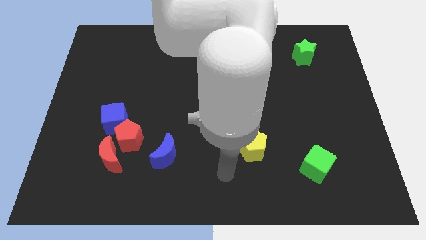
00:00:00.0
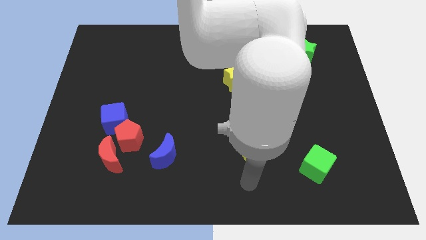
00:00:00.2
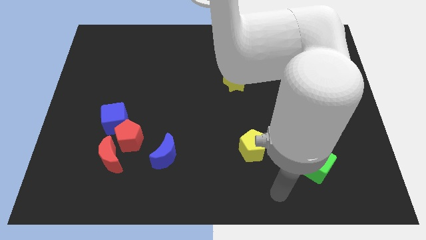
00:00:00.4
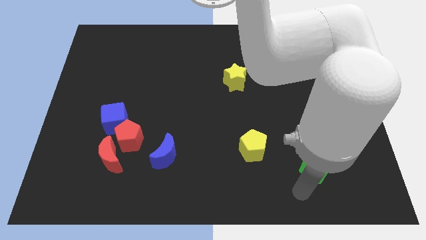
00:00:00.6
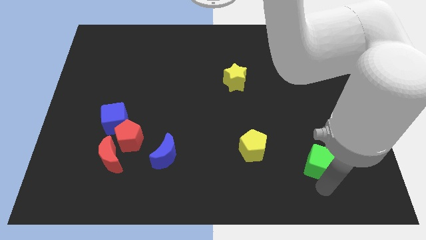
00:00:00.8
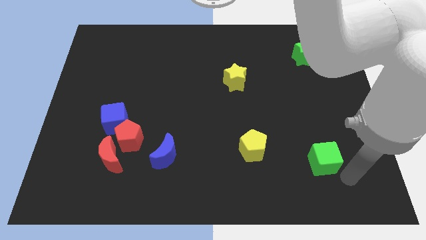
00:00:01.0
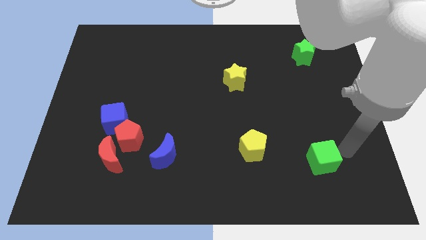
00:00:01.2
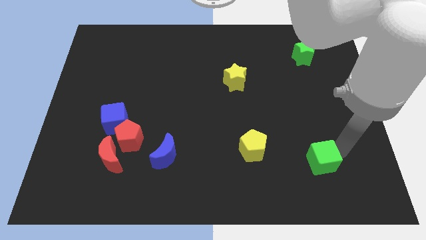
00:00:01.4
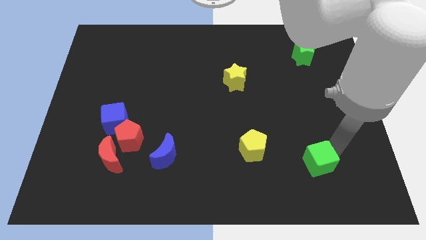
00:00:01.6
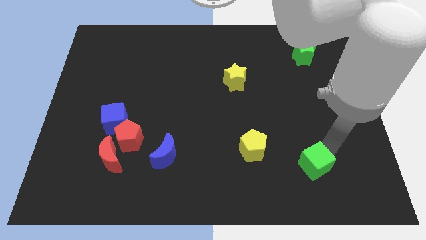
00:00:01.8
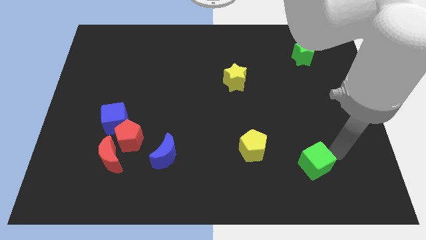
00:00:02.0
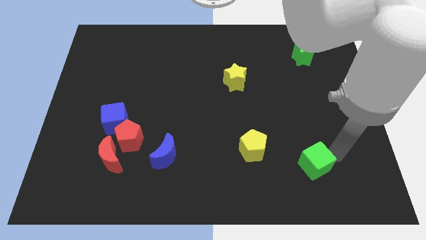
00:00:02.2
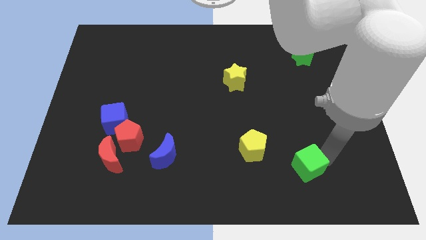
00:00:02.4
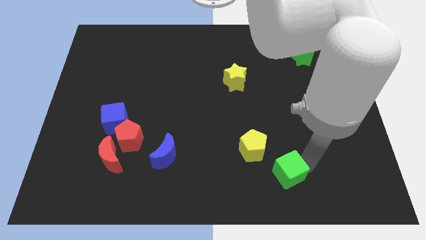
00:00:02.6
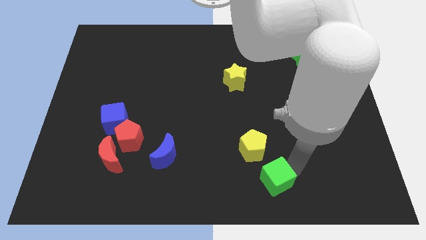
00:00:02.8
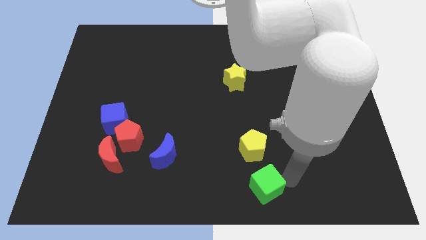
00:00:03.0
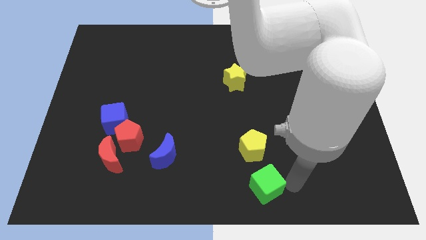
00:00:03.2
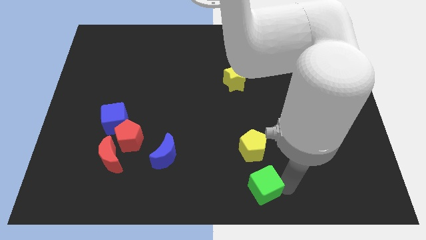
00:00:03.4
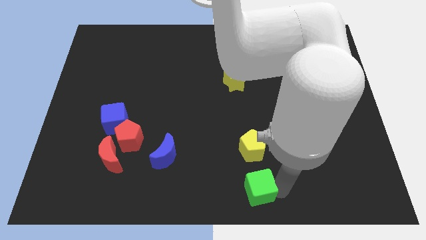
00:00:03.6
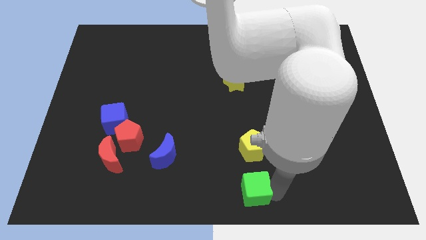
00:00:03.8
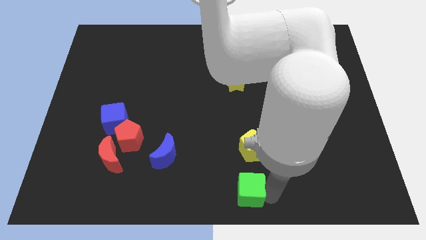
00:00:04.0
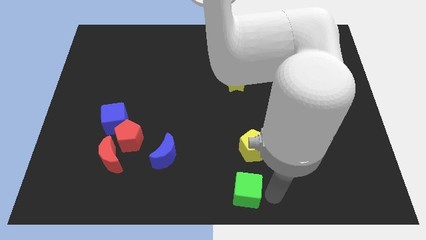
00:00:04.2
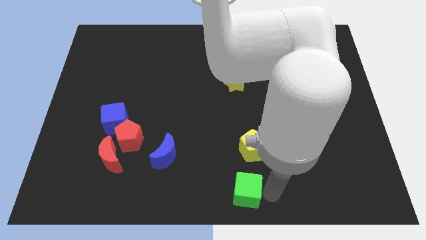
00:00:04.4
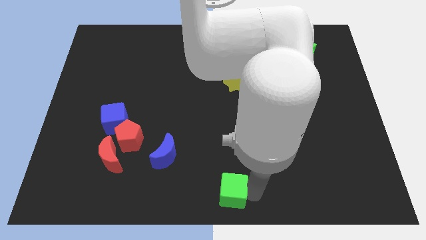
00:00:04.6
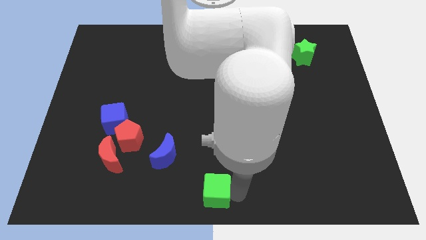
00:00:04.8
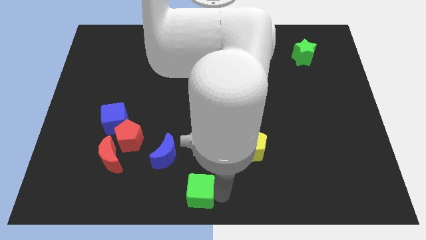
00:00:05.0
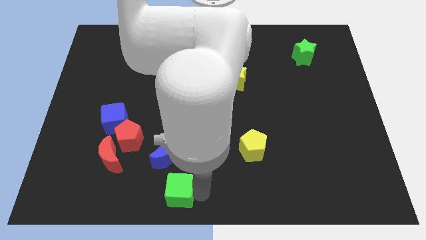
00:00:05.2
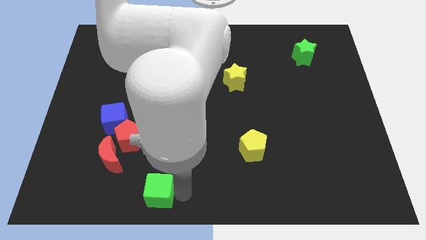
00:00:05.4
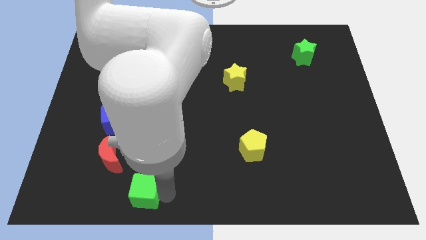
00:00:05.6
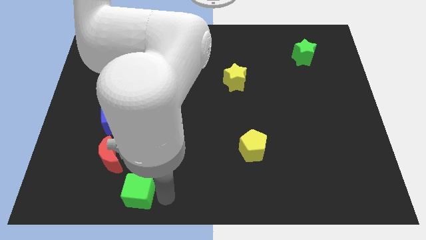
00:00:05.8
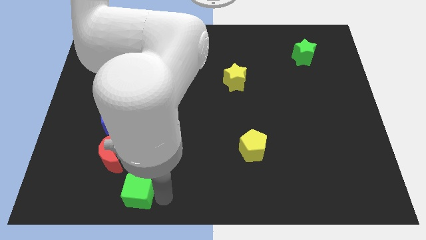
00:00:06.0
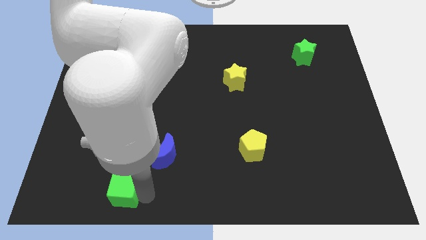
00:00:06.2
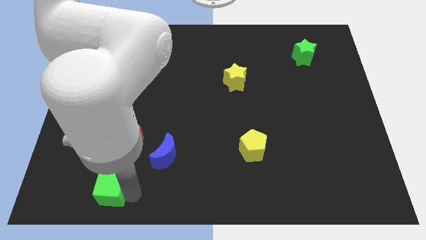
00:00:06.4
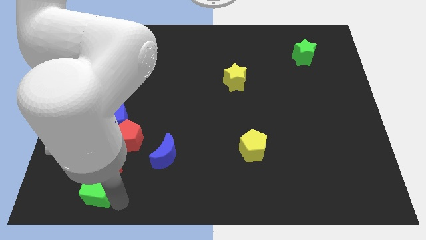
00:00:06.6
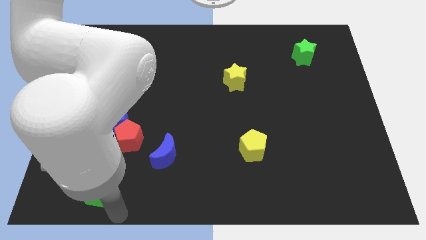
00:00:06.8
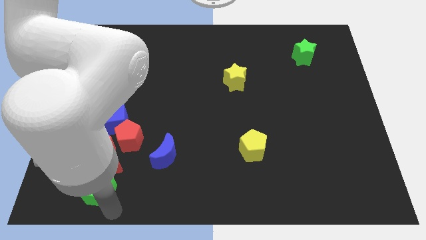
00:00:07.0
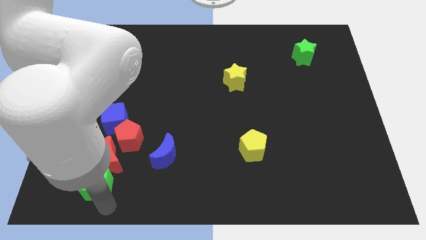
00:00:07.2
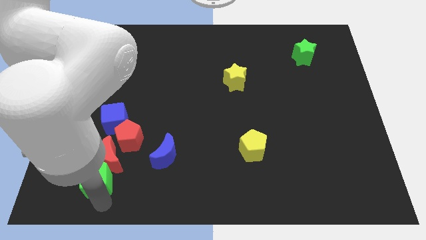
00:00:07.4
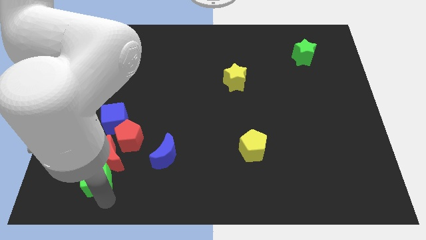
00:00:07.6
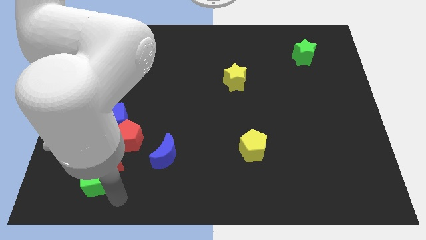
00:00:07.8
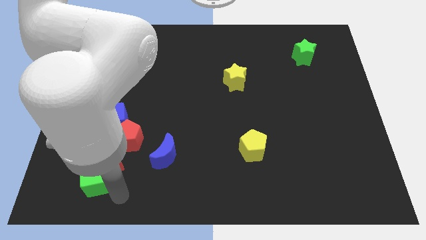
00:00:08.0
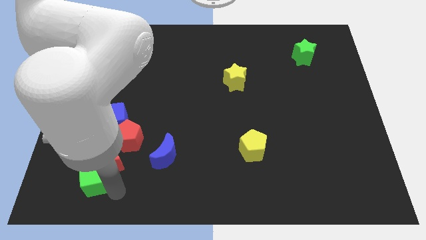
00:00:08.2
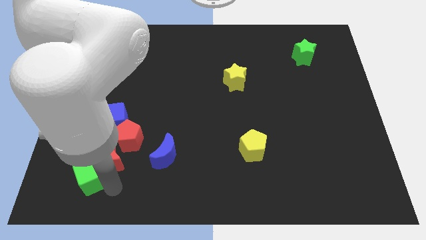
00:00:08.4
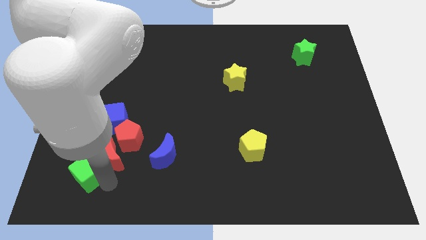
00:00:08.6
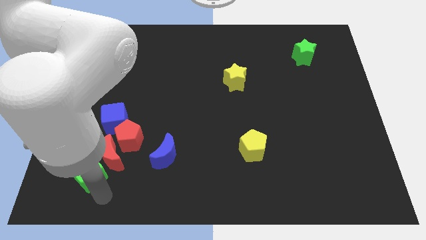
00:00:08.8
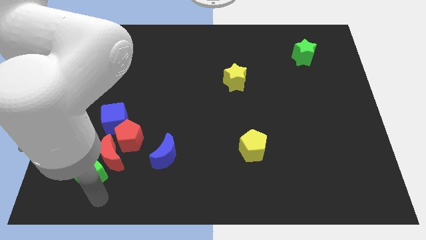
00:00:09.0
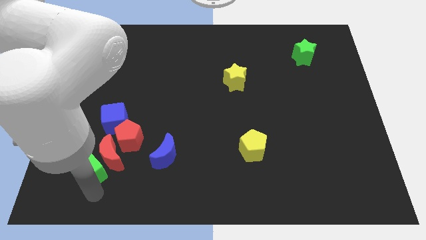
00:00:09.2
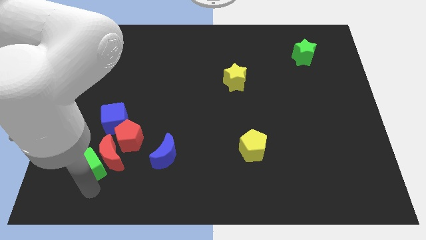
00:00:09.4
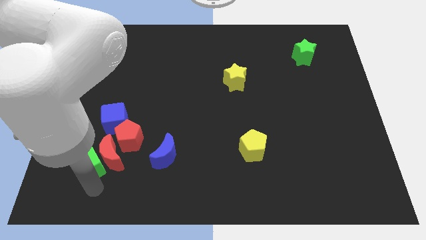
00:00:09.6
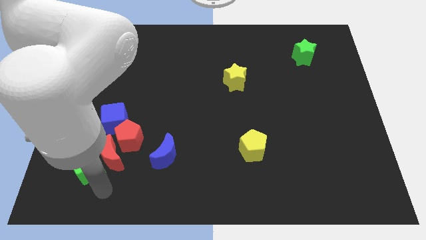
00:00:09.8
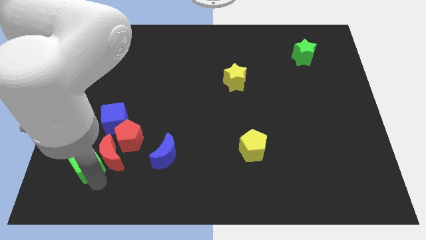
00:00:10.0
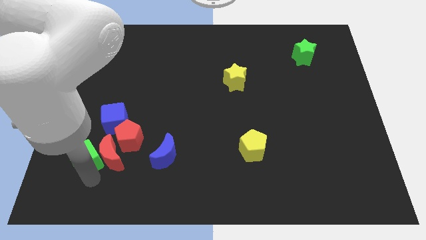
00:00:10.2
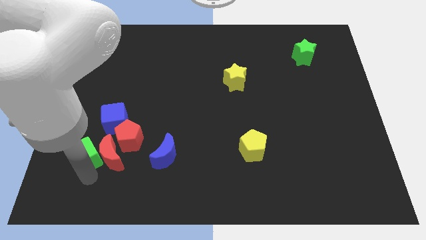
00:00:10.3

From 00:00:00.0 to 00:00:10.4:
put the green cube just left of the red pentagon

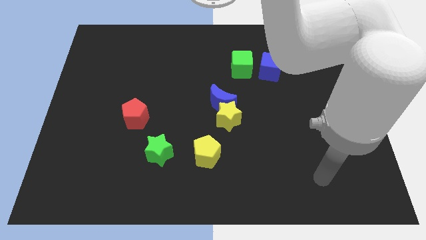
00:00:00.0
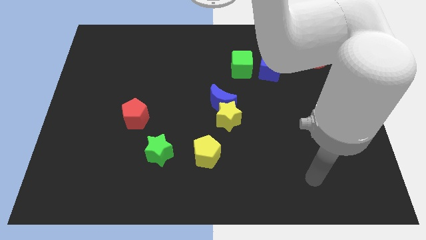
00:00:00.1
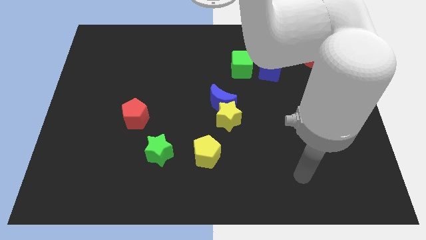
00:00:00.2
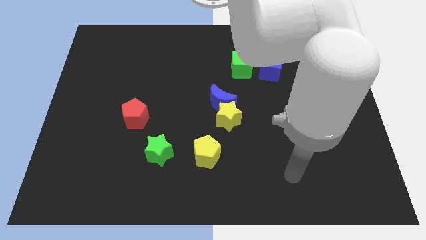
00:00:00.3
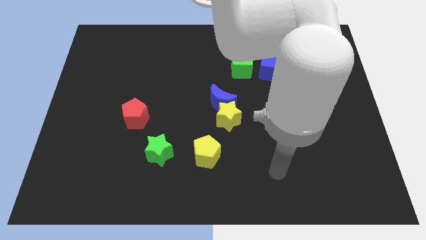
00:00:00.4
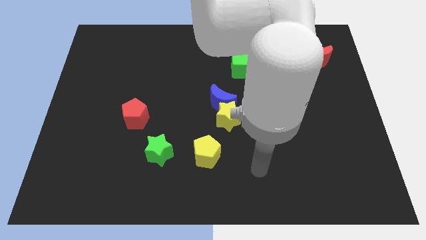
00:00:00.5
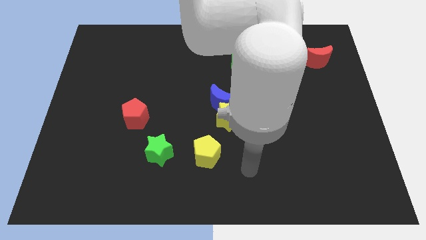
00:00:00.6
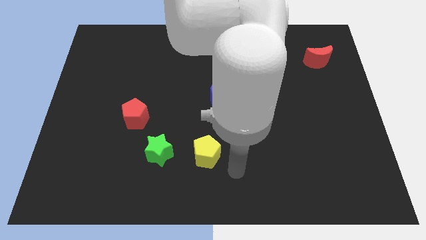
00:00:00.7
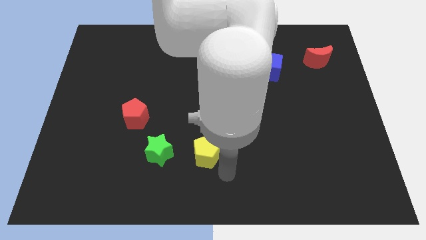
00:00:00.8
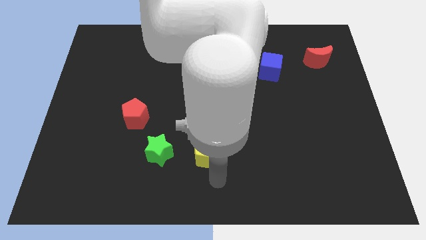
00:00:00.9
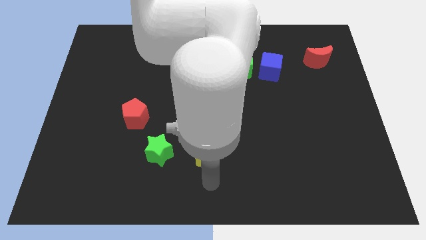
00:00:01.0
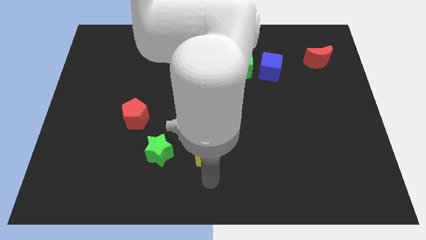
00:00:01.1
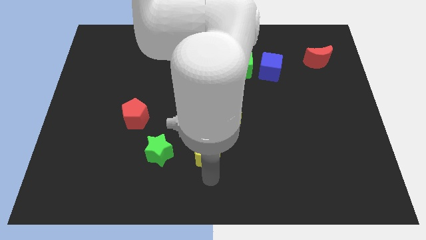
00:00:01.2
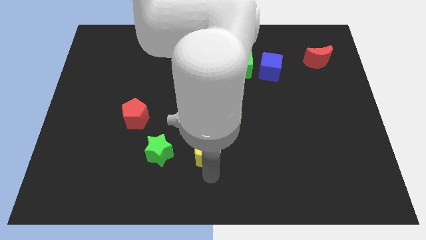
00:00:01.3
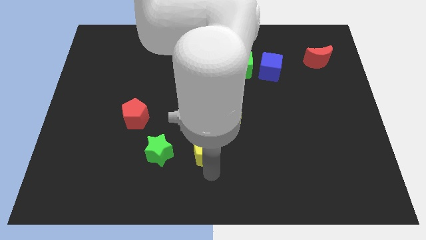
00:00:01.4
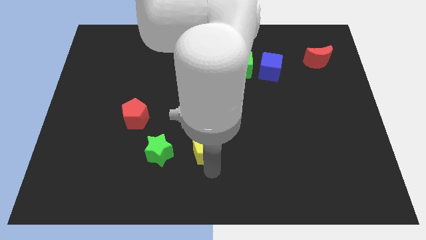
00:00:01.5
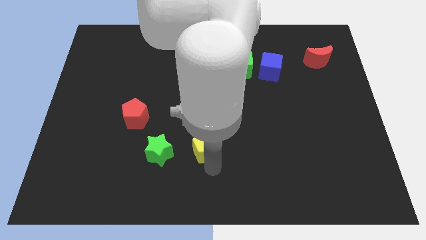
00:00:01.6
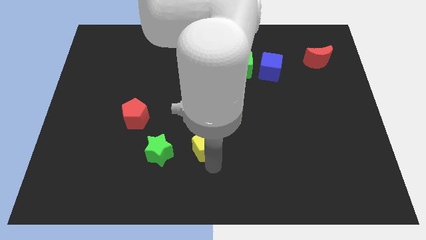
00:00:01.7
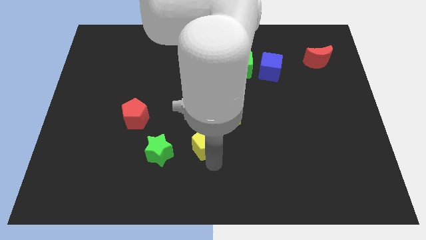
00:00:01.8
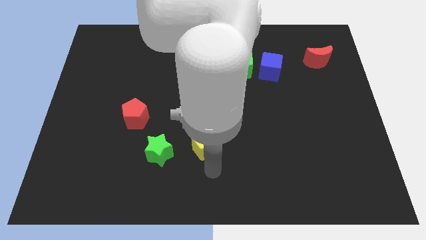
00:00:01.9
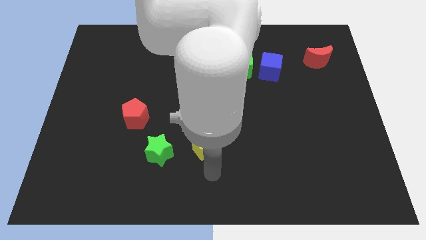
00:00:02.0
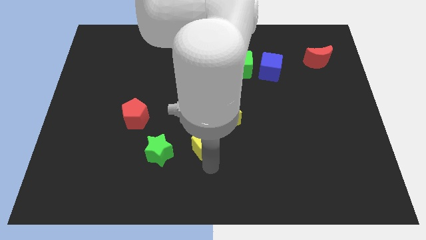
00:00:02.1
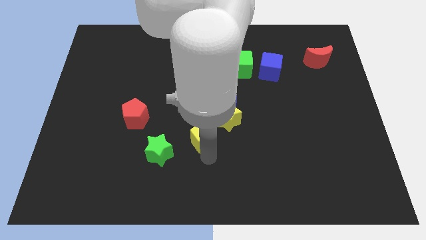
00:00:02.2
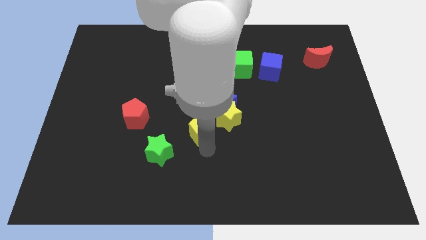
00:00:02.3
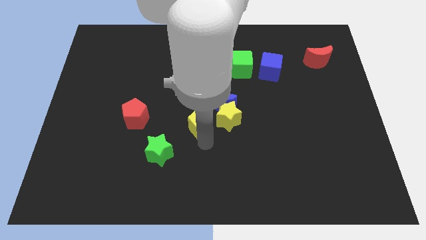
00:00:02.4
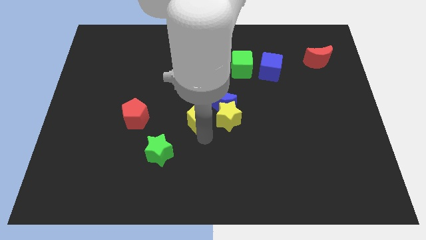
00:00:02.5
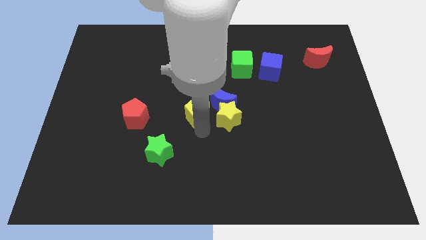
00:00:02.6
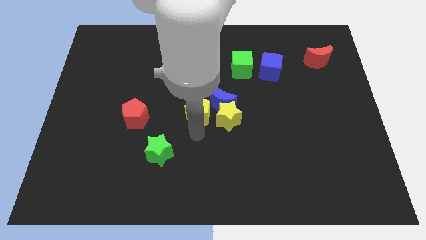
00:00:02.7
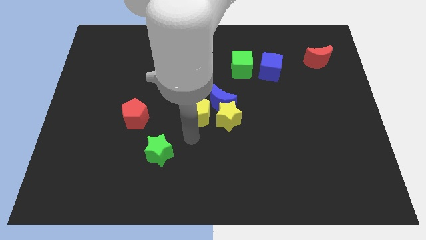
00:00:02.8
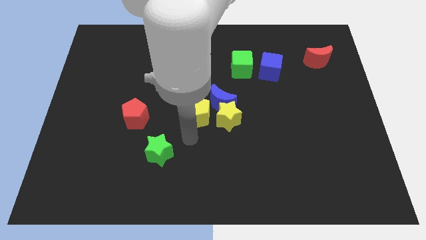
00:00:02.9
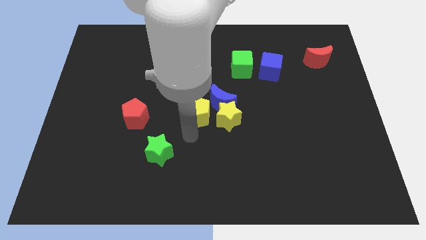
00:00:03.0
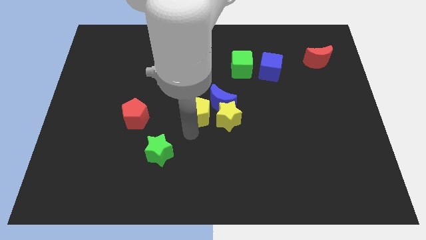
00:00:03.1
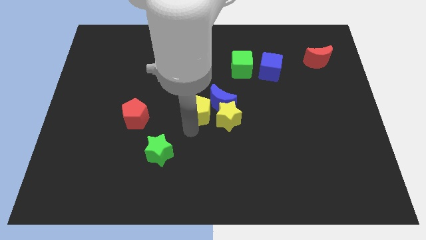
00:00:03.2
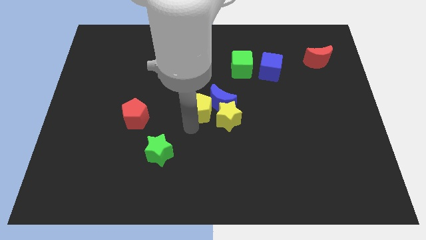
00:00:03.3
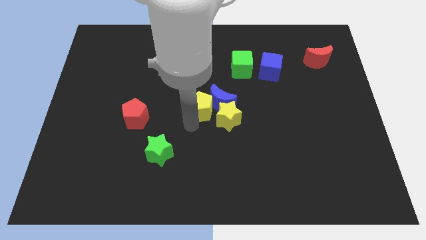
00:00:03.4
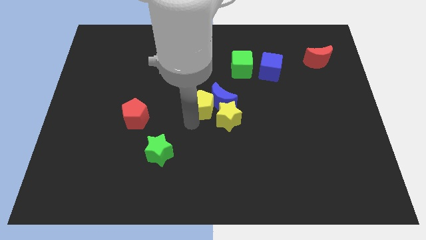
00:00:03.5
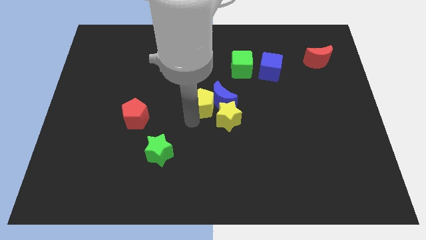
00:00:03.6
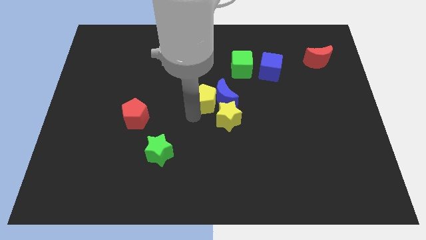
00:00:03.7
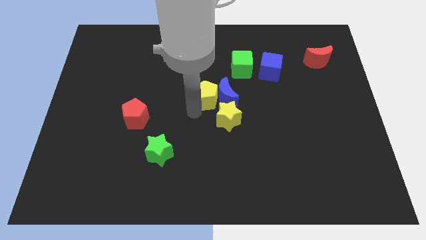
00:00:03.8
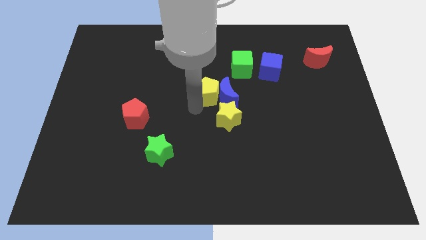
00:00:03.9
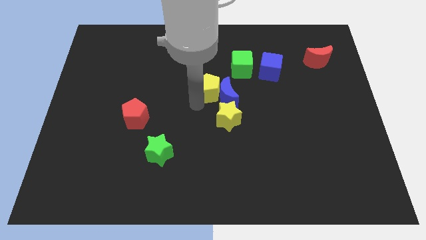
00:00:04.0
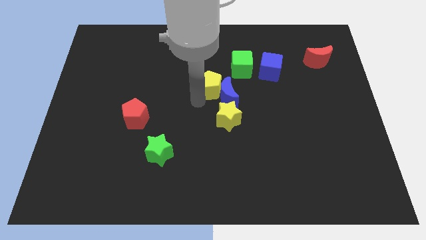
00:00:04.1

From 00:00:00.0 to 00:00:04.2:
put the yellow pentagon above the blue moon
